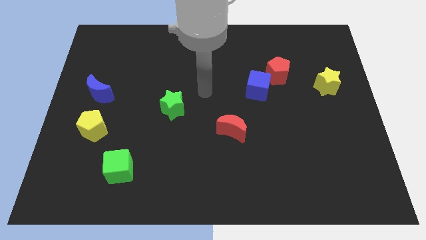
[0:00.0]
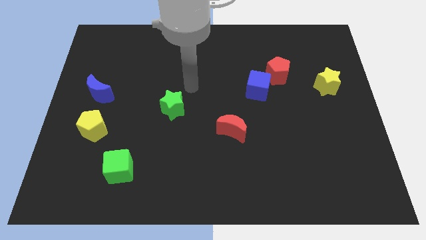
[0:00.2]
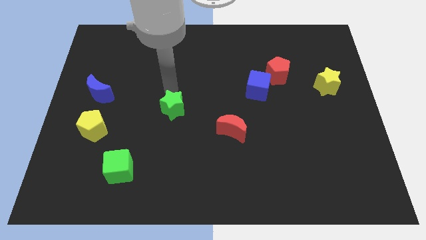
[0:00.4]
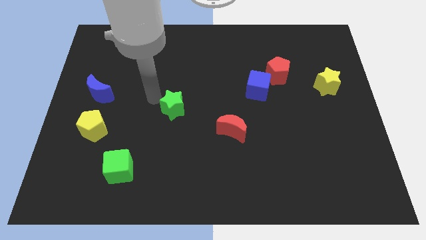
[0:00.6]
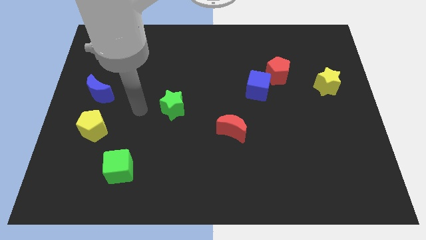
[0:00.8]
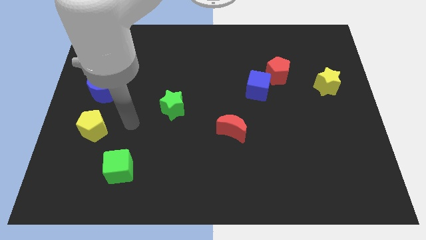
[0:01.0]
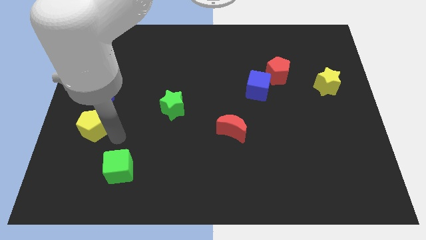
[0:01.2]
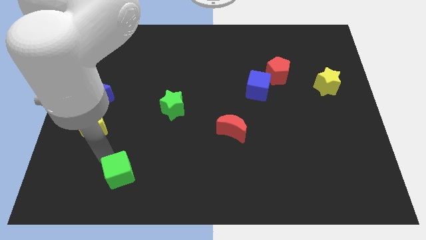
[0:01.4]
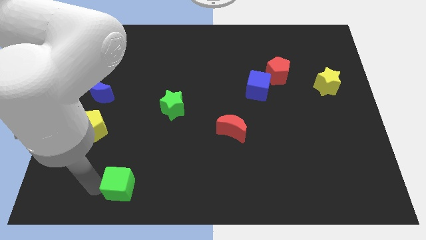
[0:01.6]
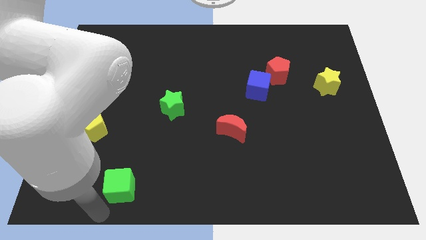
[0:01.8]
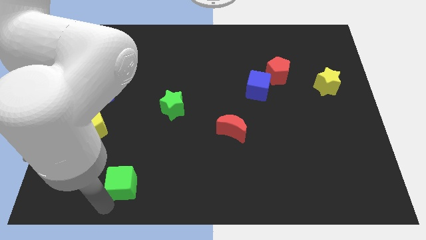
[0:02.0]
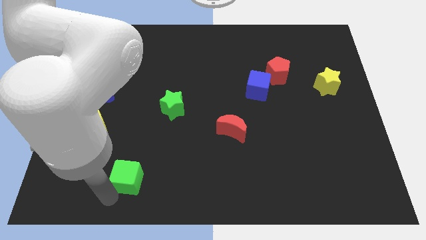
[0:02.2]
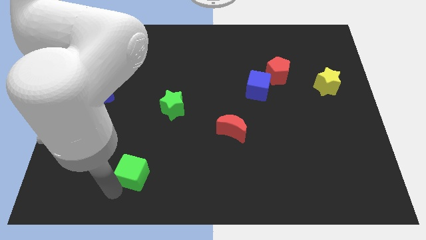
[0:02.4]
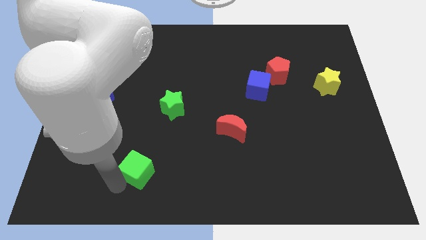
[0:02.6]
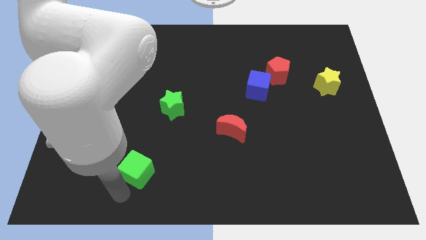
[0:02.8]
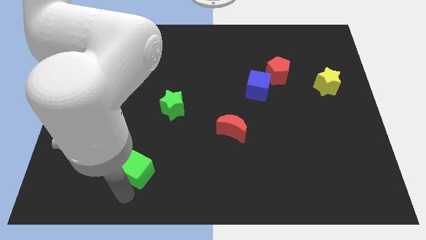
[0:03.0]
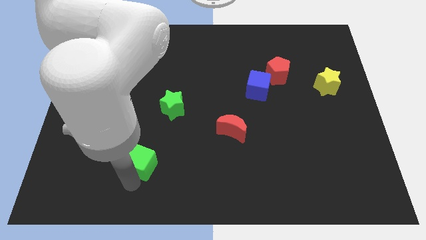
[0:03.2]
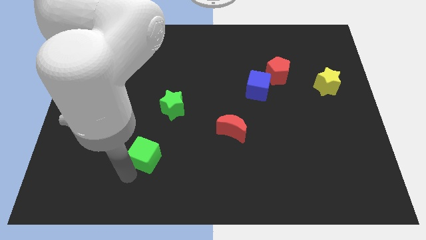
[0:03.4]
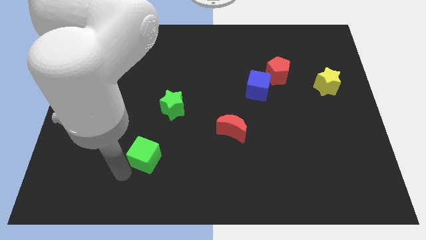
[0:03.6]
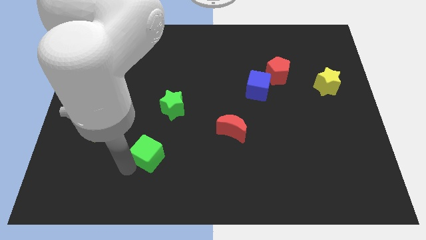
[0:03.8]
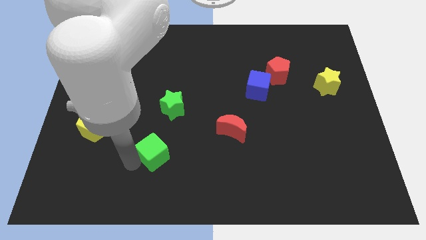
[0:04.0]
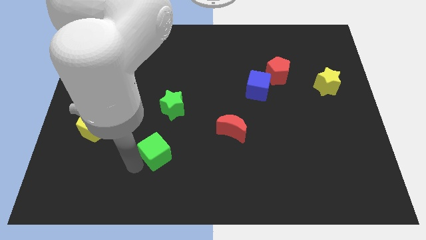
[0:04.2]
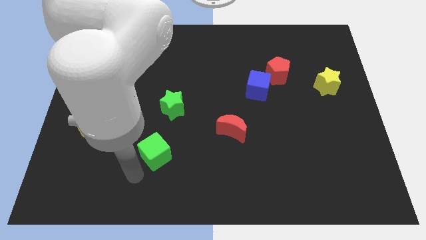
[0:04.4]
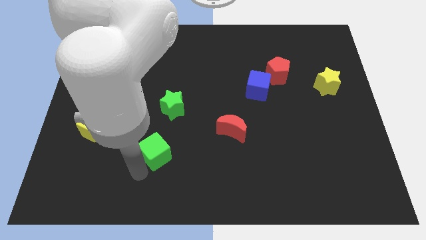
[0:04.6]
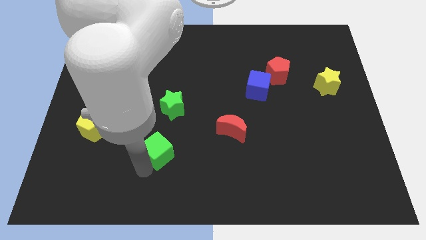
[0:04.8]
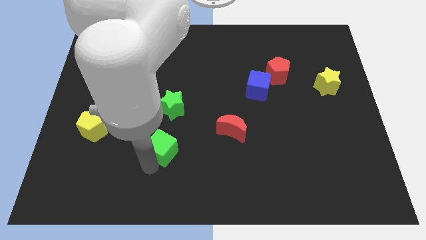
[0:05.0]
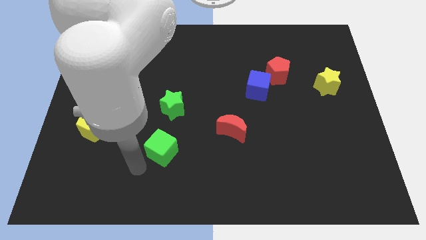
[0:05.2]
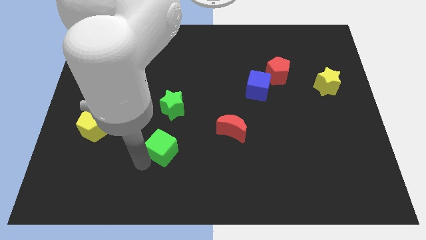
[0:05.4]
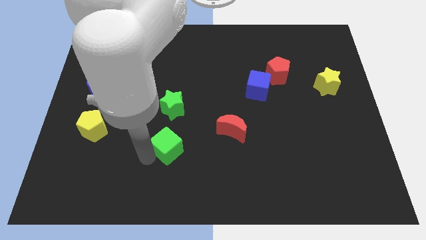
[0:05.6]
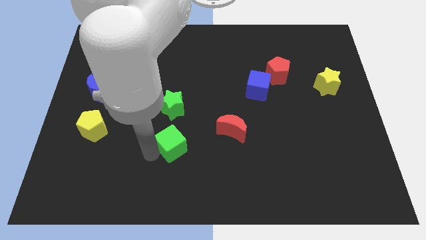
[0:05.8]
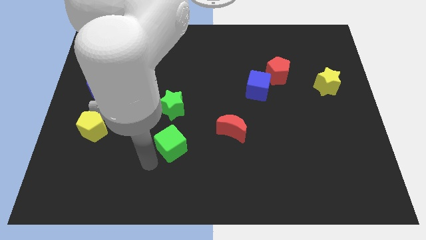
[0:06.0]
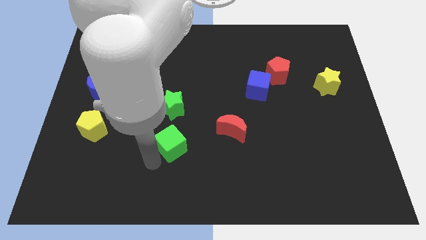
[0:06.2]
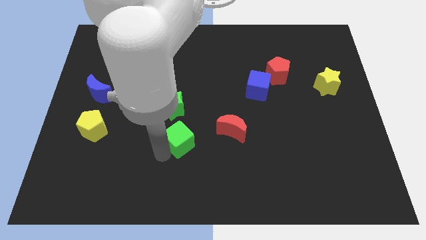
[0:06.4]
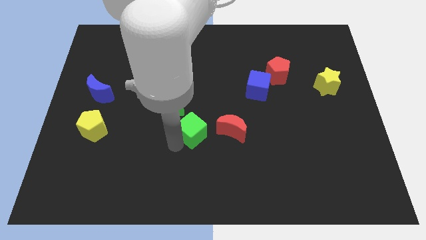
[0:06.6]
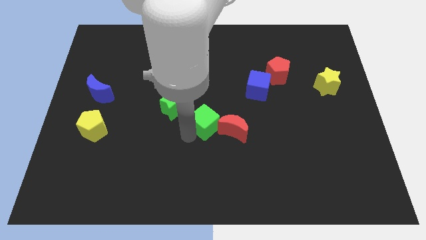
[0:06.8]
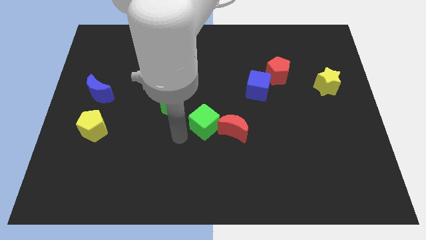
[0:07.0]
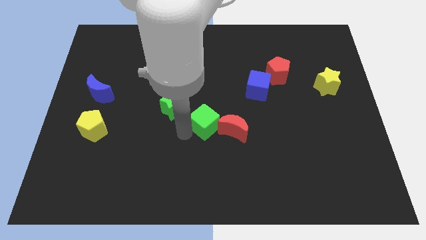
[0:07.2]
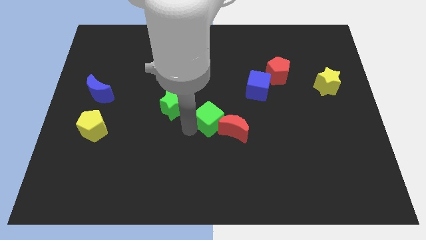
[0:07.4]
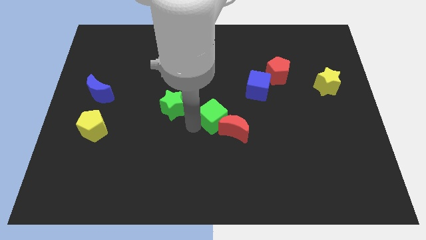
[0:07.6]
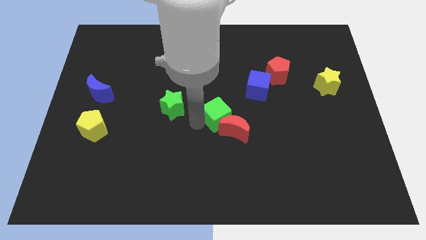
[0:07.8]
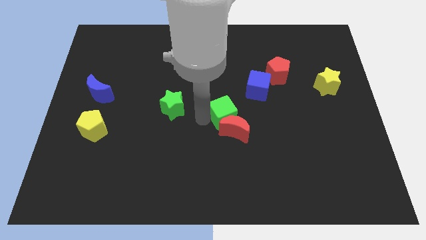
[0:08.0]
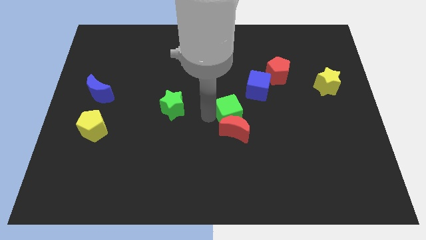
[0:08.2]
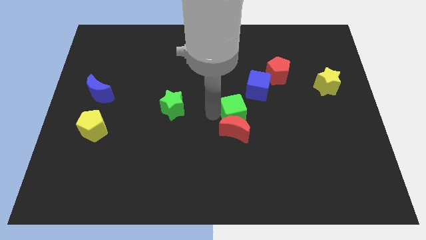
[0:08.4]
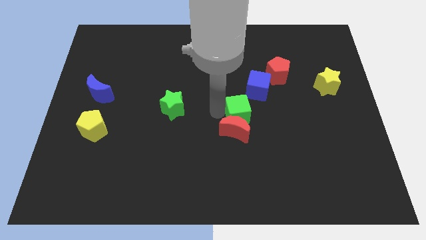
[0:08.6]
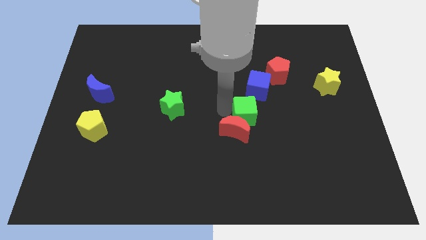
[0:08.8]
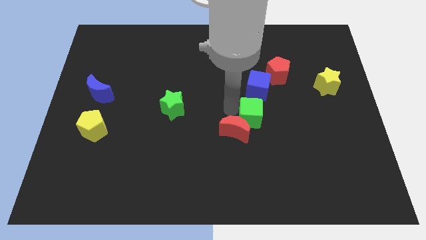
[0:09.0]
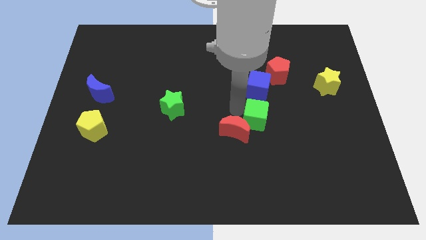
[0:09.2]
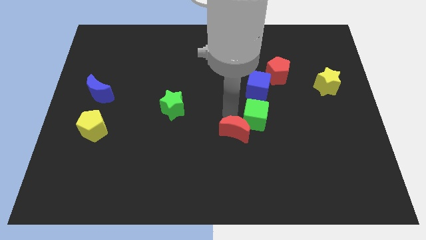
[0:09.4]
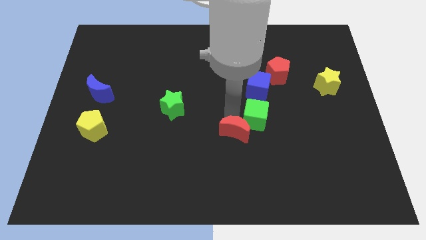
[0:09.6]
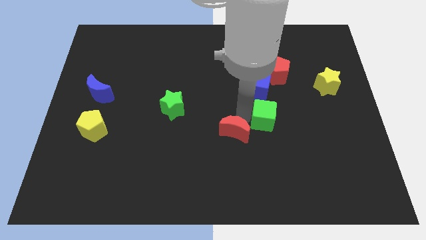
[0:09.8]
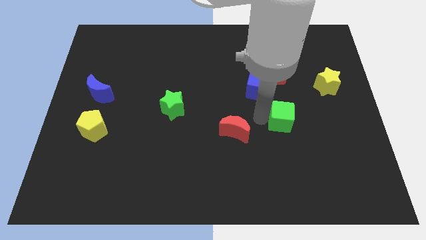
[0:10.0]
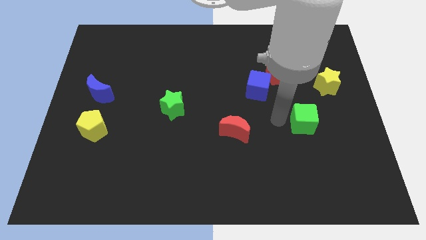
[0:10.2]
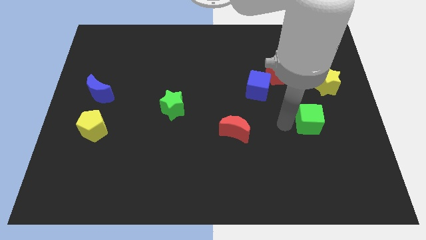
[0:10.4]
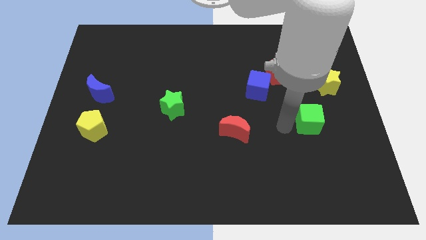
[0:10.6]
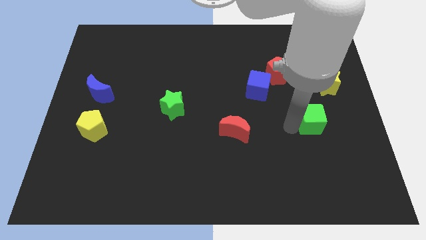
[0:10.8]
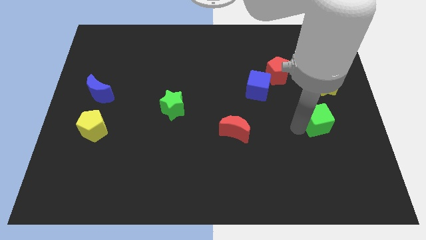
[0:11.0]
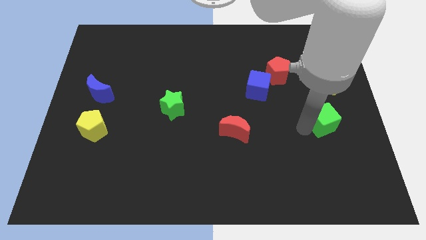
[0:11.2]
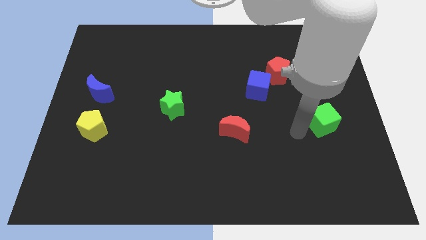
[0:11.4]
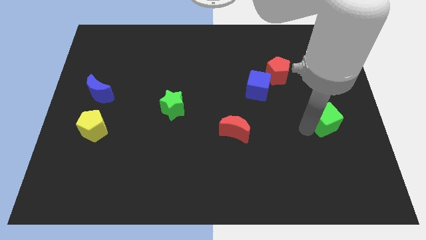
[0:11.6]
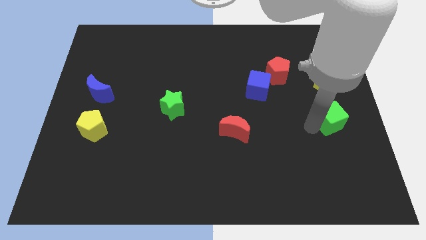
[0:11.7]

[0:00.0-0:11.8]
move the green cube to the center right
